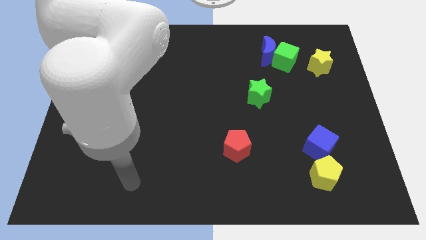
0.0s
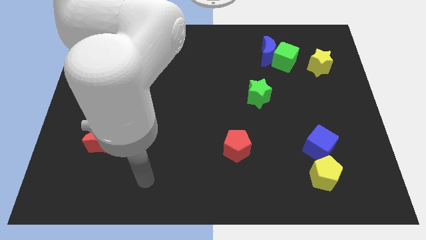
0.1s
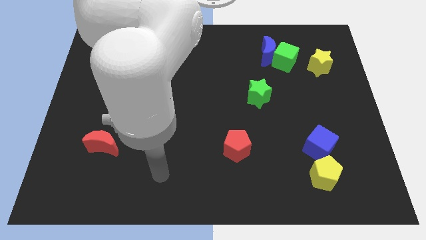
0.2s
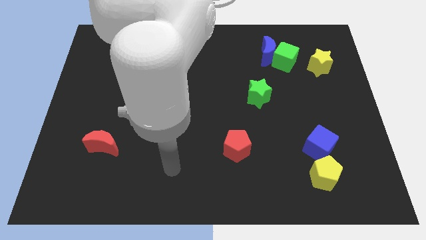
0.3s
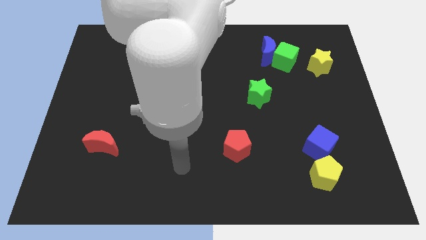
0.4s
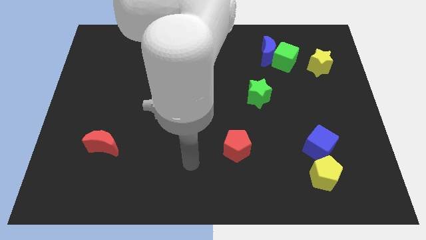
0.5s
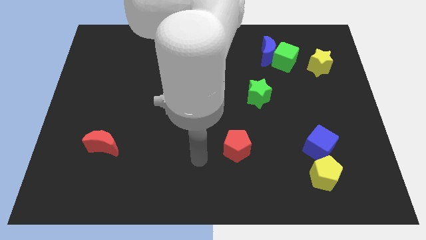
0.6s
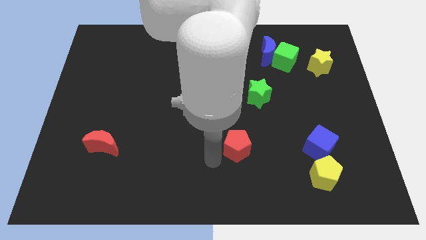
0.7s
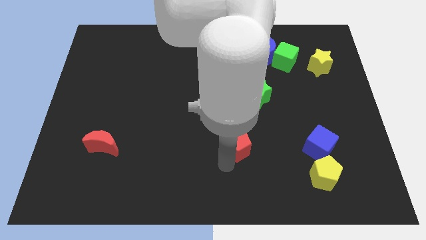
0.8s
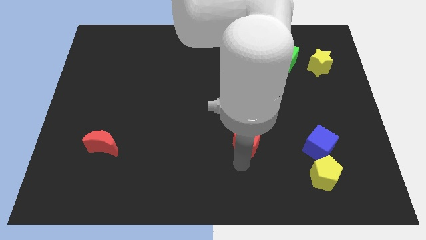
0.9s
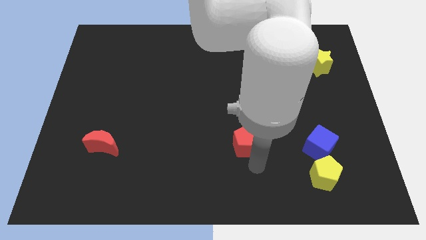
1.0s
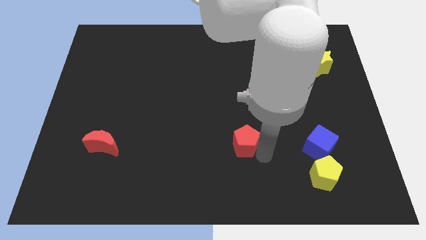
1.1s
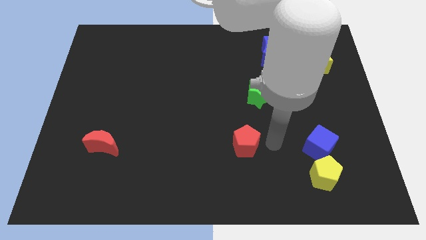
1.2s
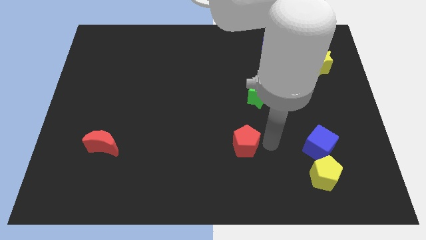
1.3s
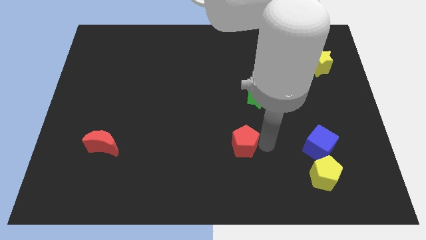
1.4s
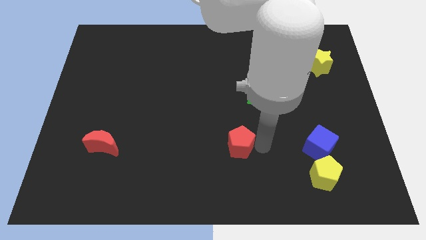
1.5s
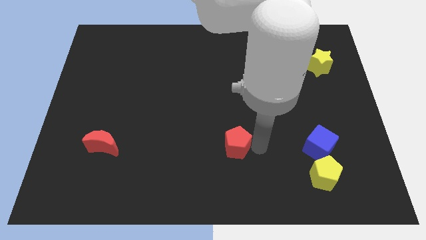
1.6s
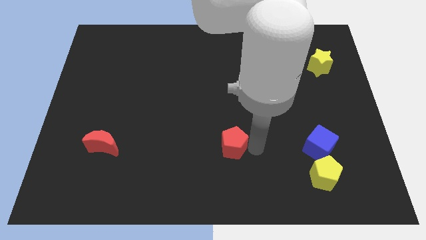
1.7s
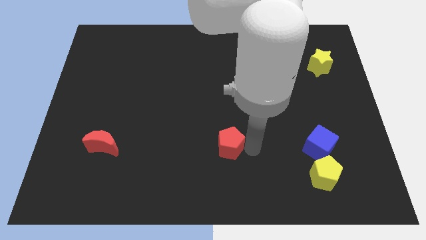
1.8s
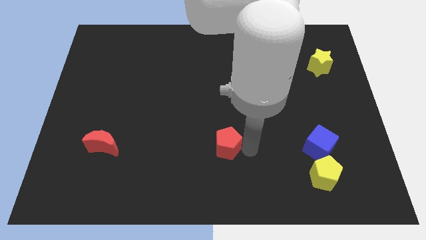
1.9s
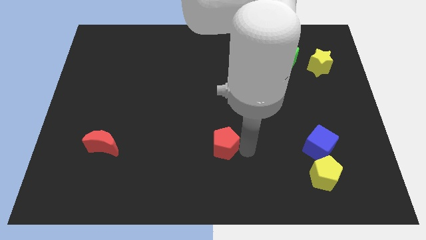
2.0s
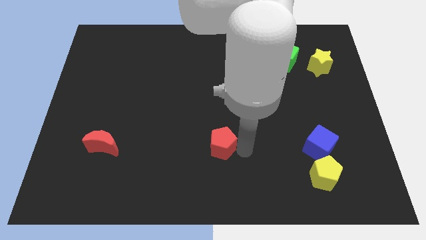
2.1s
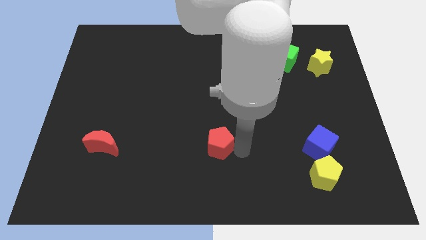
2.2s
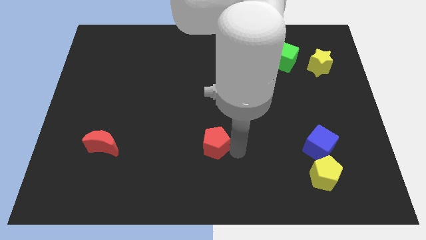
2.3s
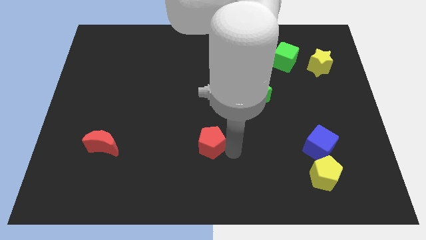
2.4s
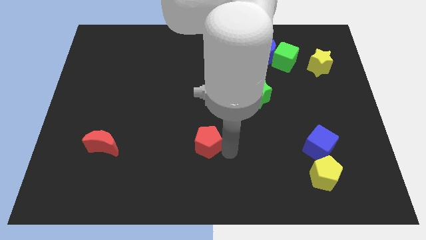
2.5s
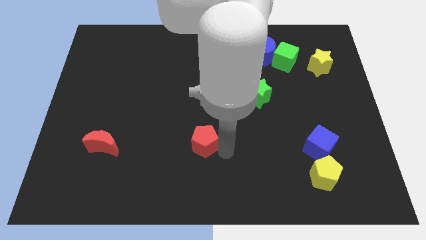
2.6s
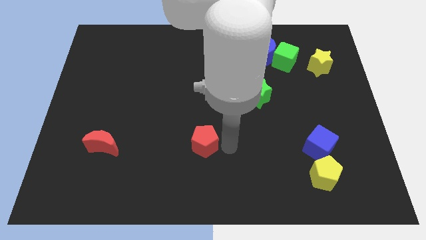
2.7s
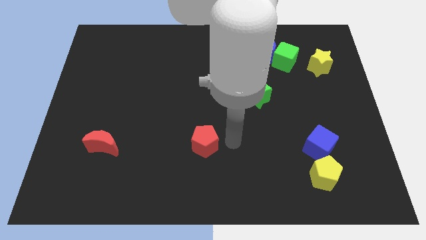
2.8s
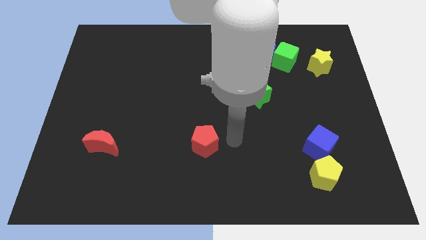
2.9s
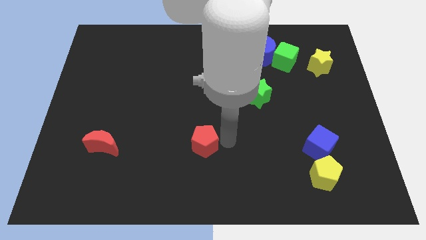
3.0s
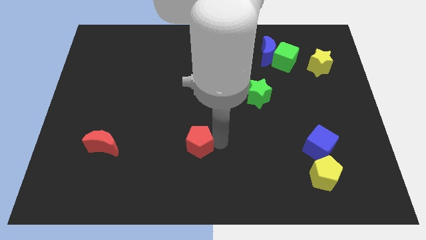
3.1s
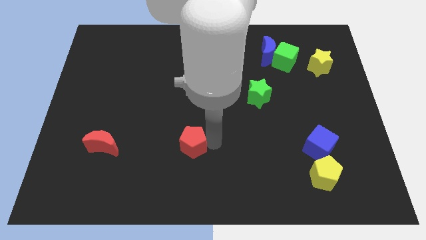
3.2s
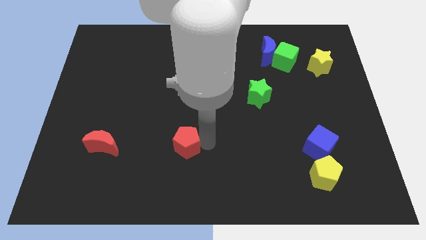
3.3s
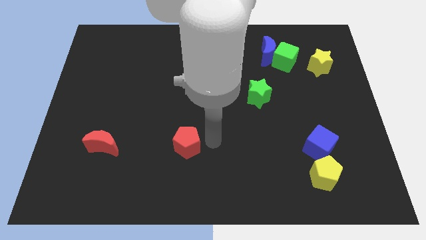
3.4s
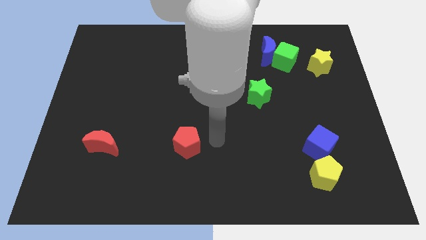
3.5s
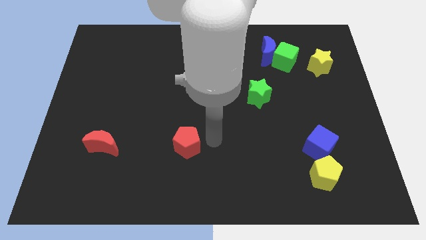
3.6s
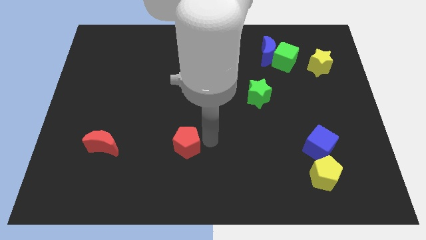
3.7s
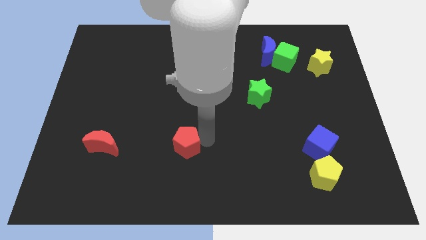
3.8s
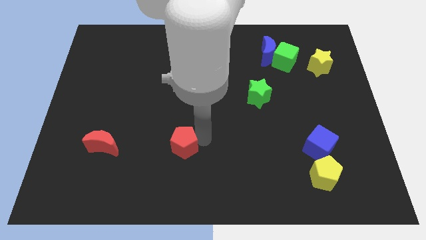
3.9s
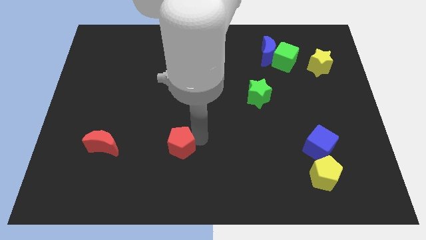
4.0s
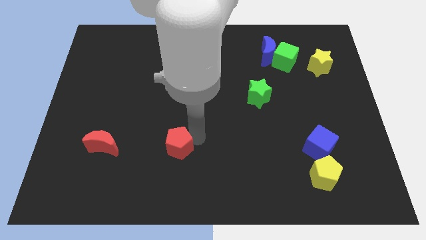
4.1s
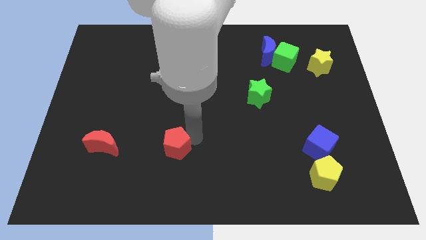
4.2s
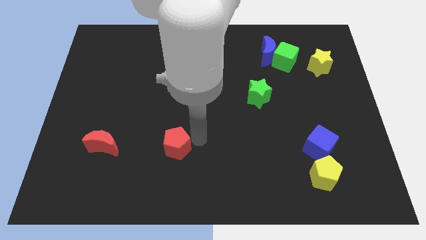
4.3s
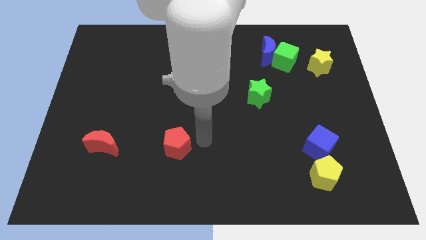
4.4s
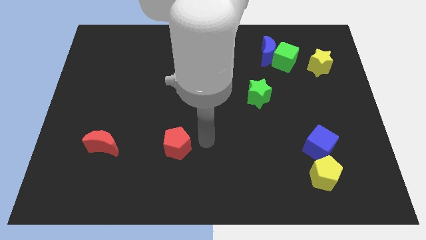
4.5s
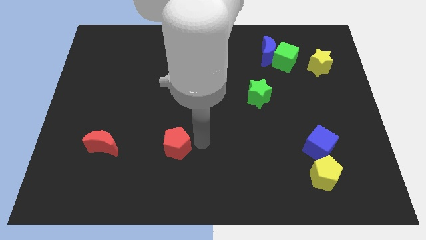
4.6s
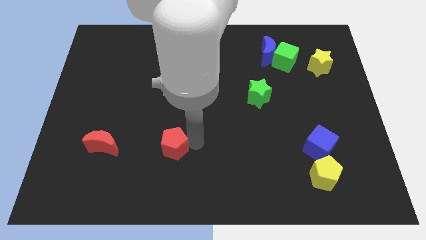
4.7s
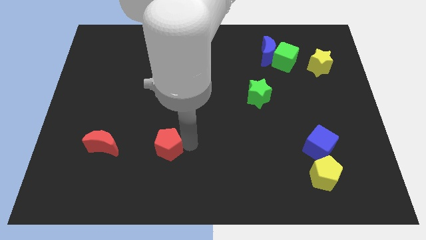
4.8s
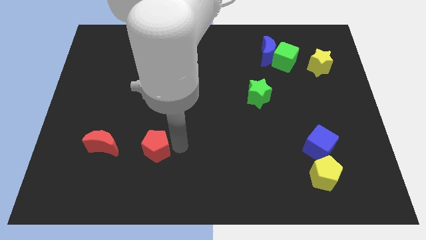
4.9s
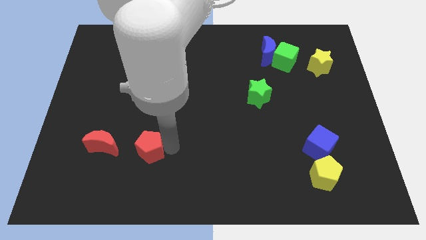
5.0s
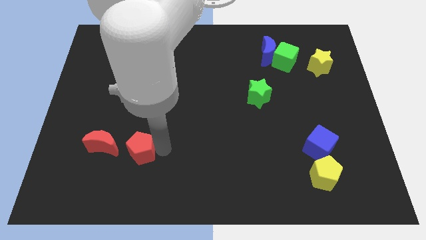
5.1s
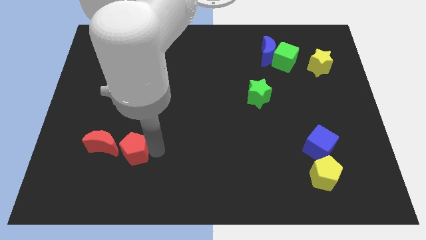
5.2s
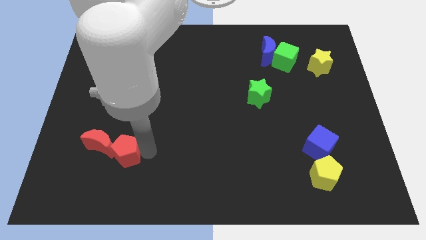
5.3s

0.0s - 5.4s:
move the red pentagon close to the red moon

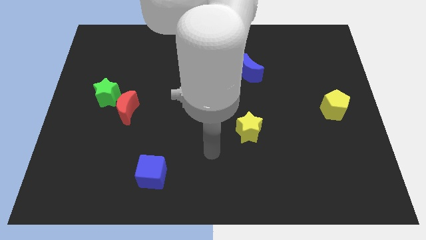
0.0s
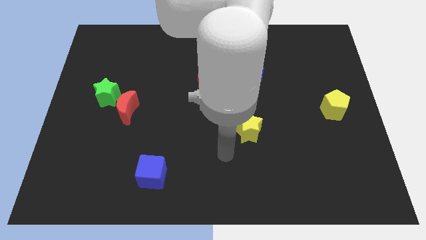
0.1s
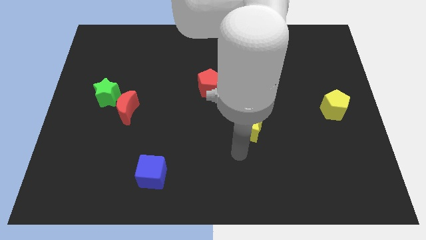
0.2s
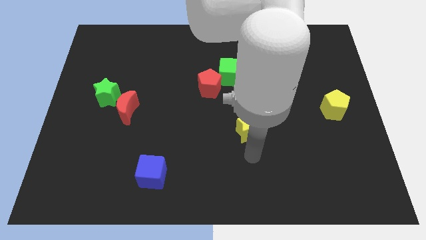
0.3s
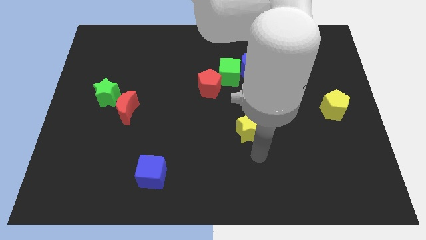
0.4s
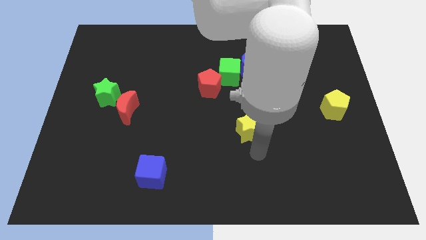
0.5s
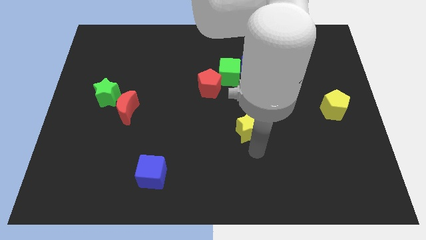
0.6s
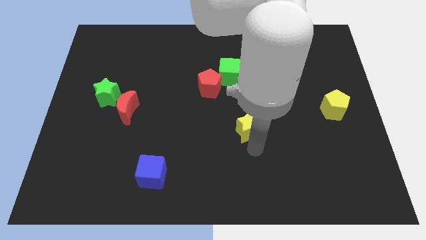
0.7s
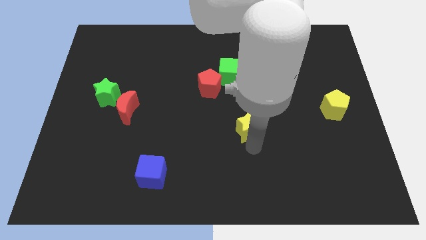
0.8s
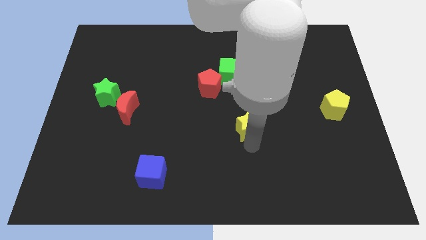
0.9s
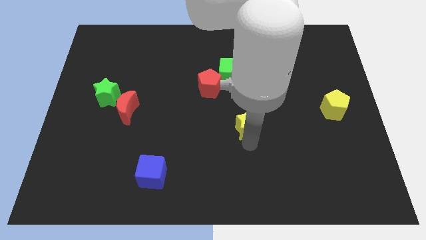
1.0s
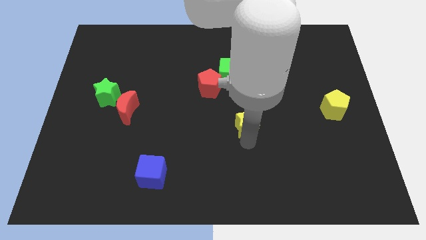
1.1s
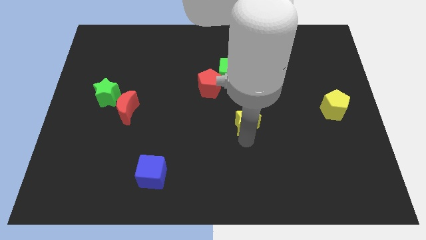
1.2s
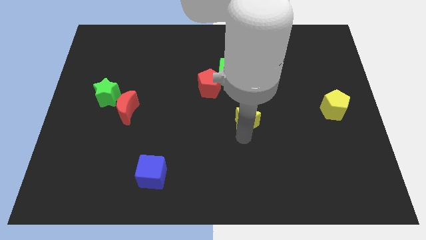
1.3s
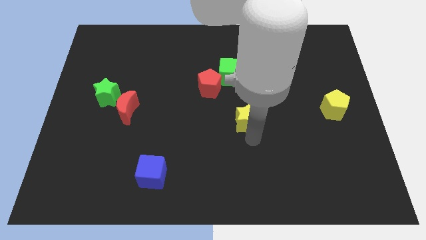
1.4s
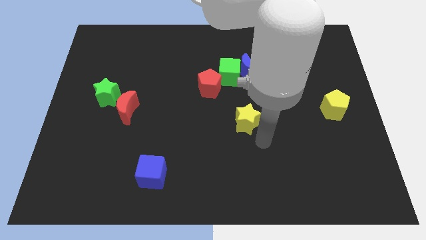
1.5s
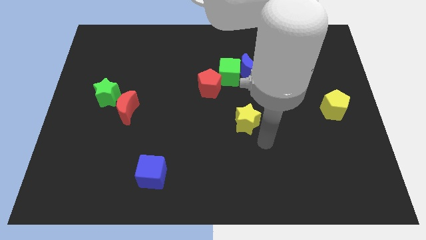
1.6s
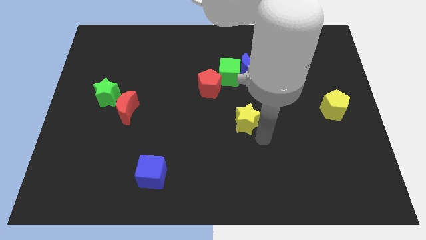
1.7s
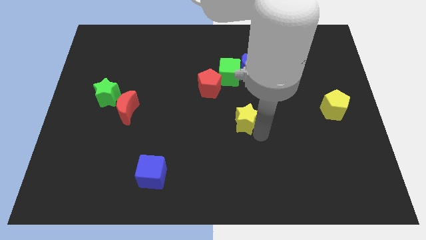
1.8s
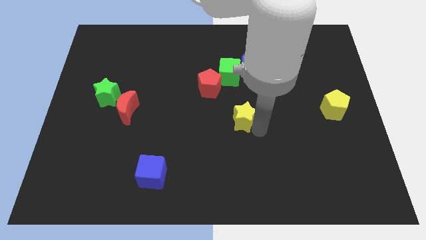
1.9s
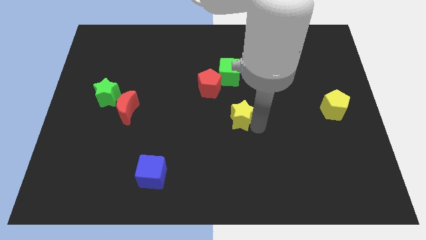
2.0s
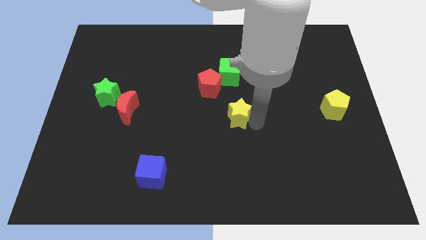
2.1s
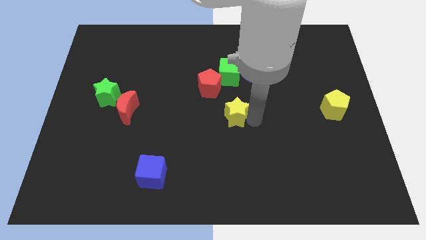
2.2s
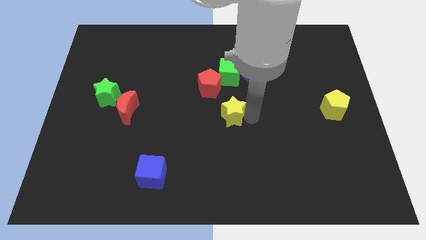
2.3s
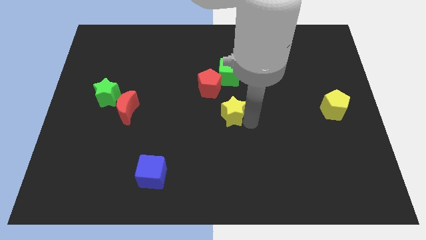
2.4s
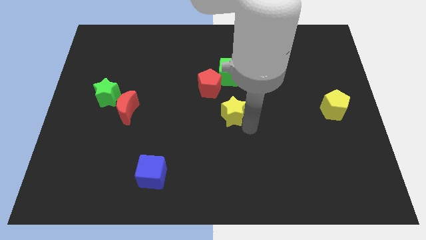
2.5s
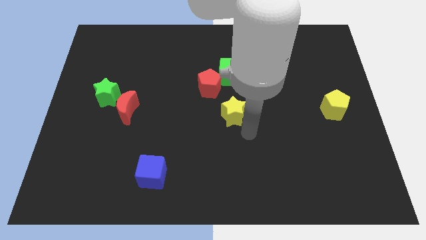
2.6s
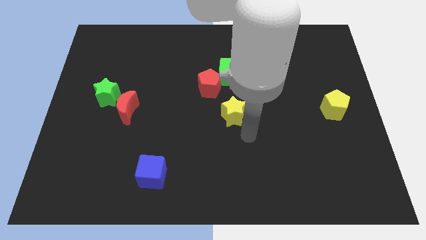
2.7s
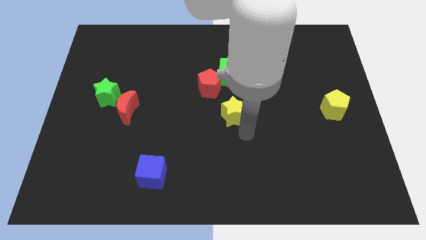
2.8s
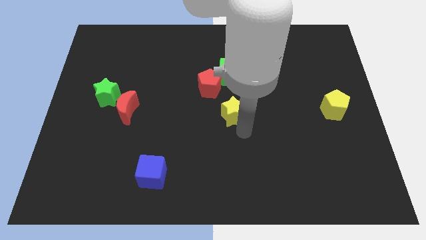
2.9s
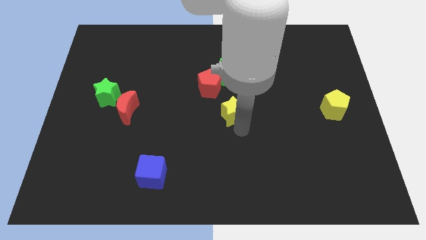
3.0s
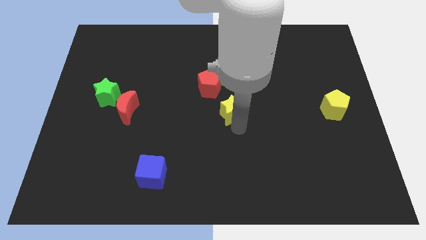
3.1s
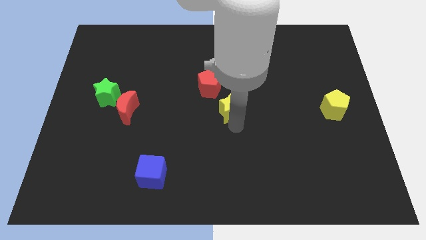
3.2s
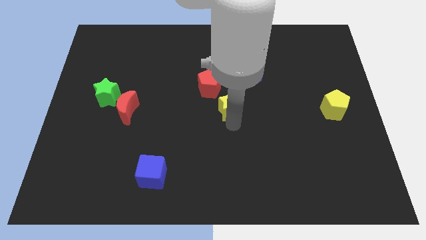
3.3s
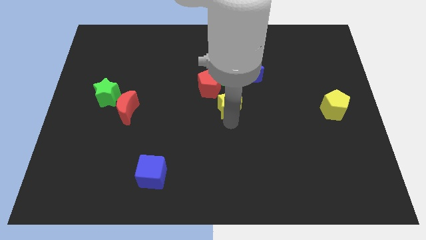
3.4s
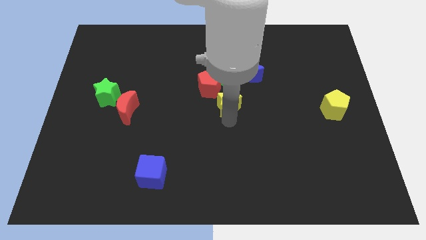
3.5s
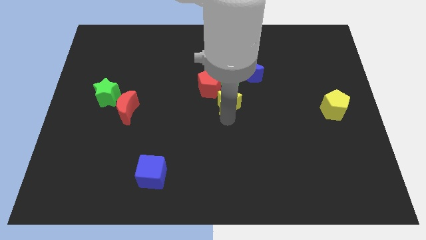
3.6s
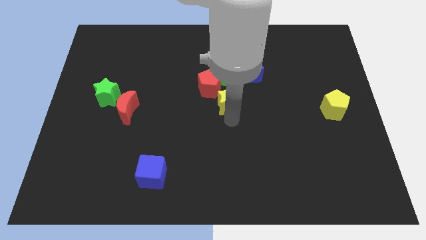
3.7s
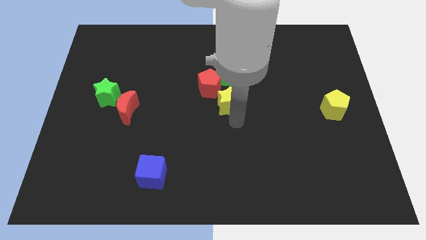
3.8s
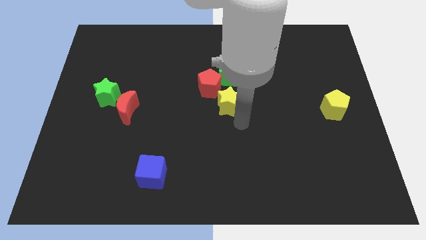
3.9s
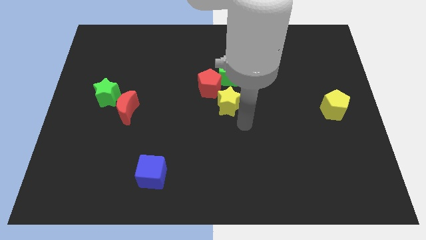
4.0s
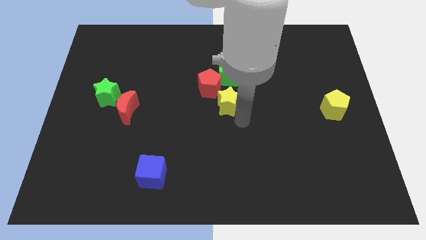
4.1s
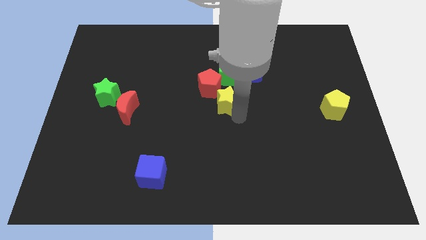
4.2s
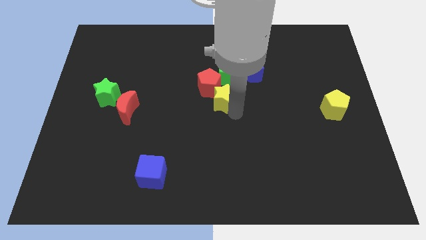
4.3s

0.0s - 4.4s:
slide the yellow star towards the red pentagon
